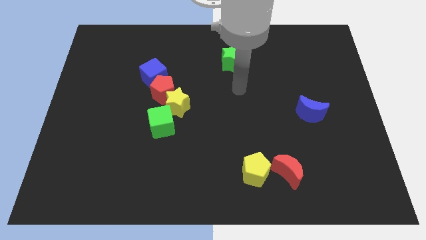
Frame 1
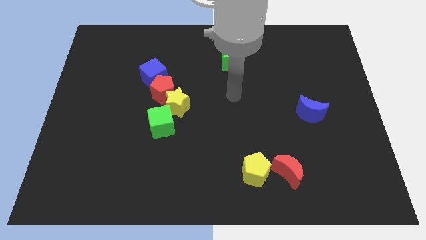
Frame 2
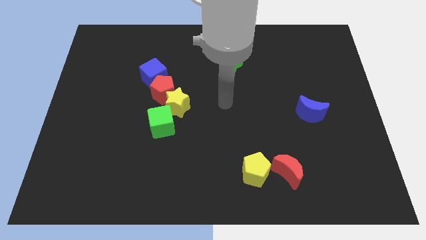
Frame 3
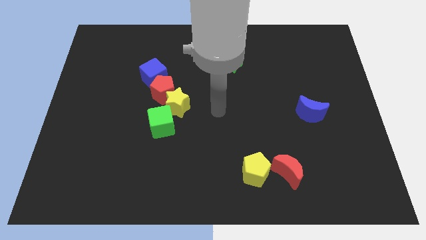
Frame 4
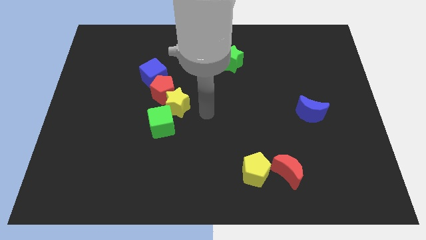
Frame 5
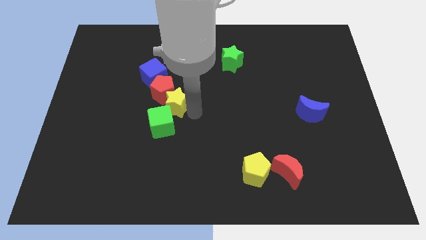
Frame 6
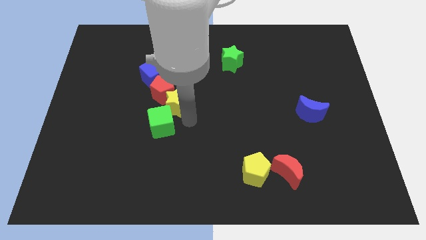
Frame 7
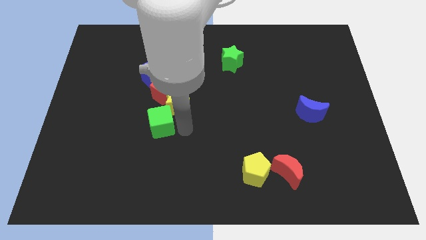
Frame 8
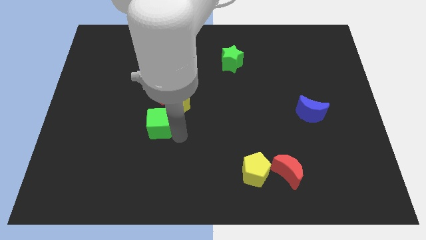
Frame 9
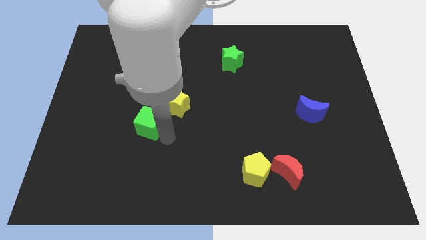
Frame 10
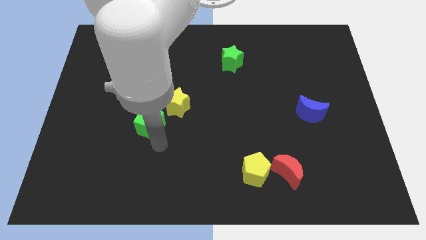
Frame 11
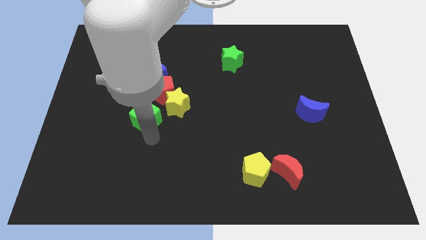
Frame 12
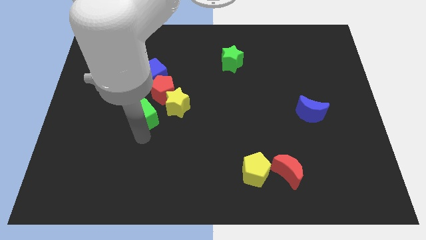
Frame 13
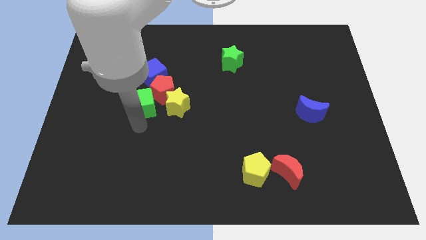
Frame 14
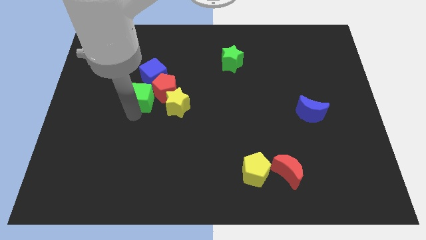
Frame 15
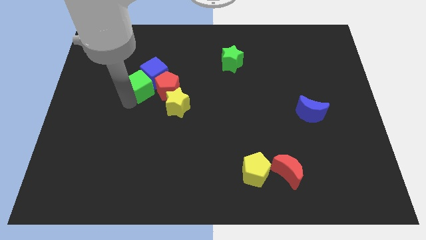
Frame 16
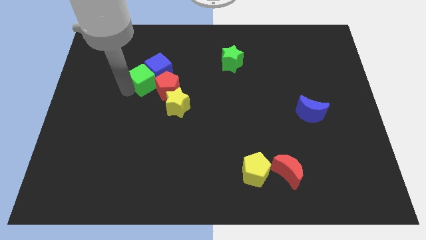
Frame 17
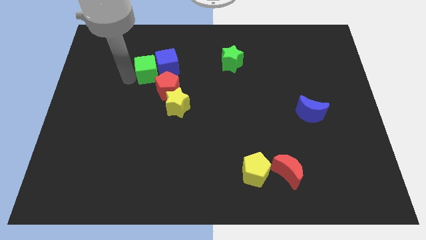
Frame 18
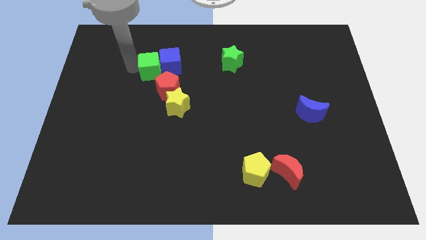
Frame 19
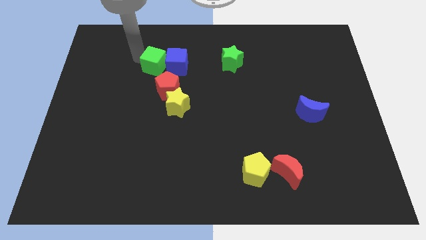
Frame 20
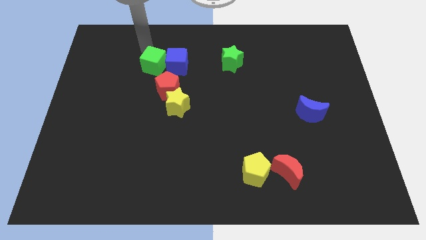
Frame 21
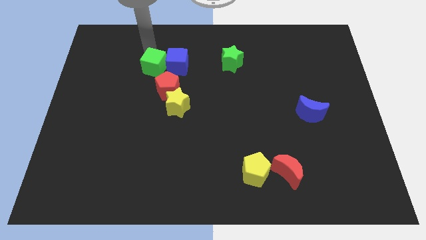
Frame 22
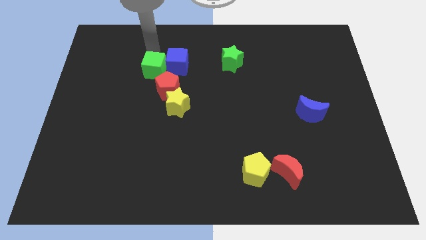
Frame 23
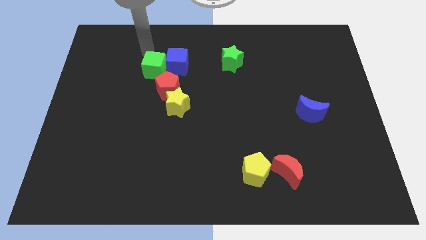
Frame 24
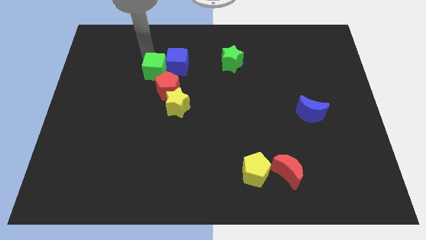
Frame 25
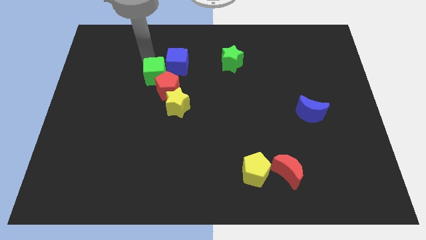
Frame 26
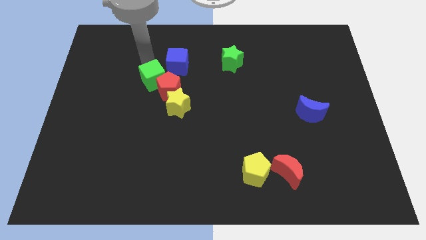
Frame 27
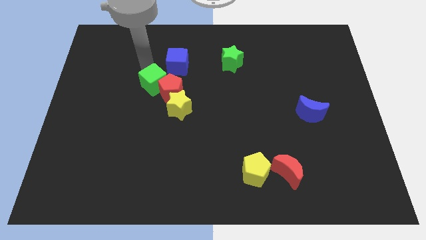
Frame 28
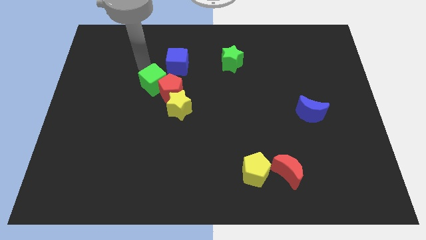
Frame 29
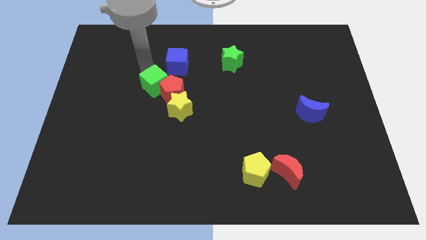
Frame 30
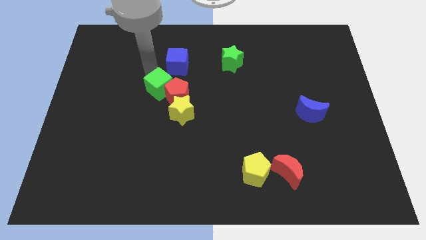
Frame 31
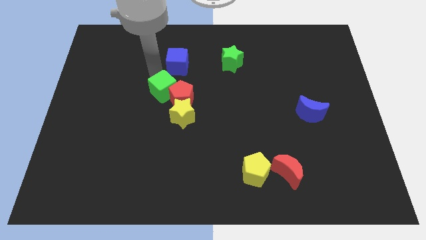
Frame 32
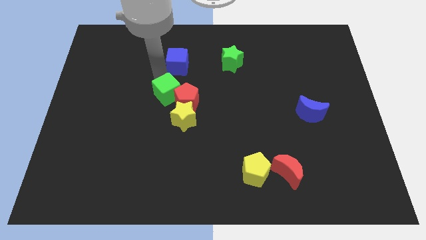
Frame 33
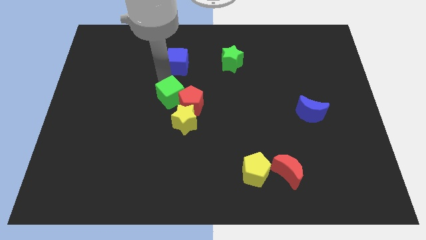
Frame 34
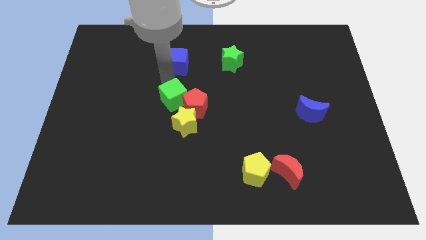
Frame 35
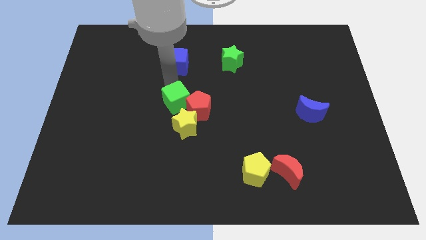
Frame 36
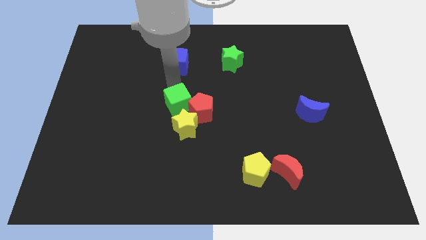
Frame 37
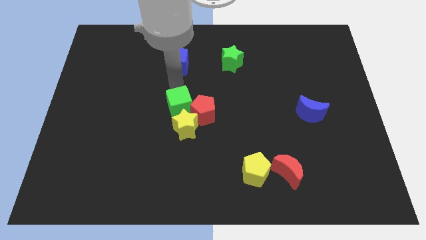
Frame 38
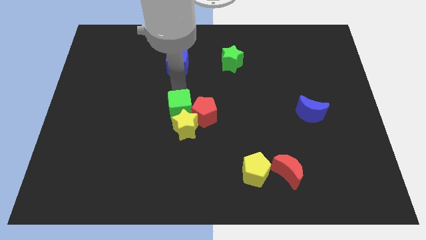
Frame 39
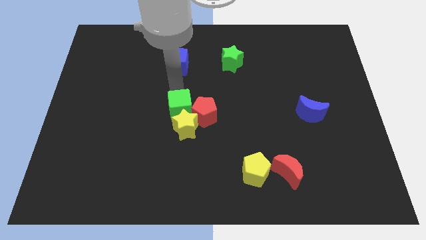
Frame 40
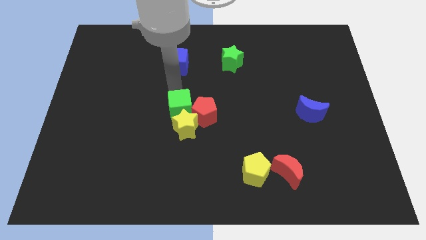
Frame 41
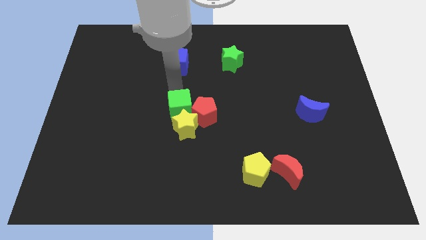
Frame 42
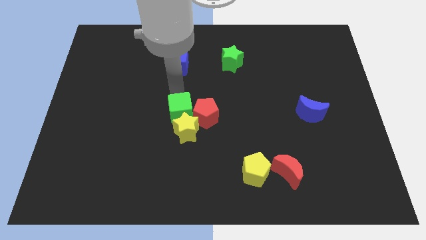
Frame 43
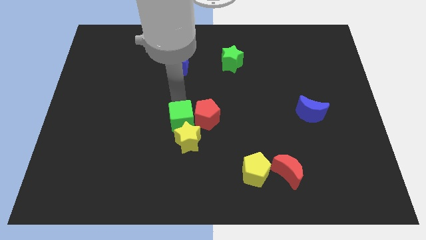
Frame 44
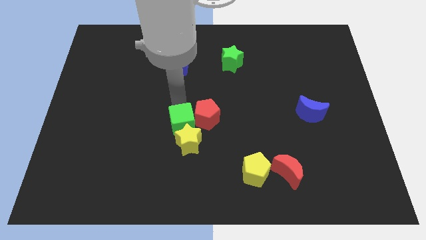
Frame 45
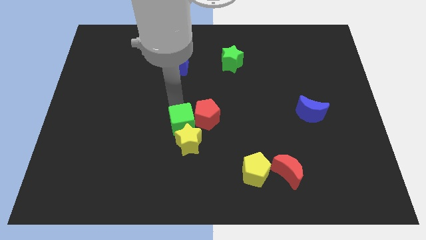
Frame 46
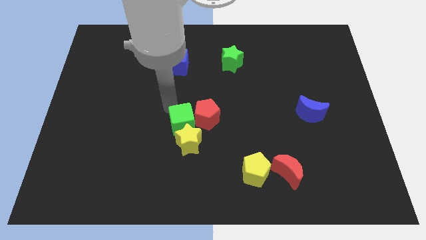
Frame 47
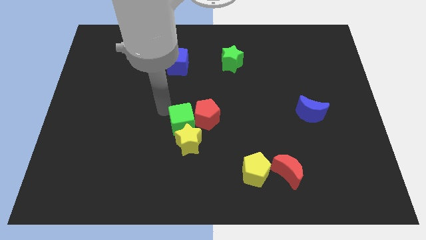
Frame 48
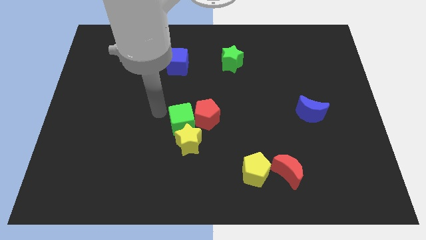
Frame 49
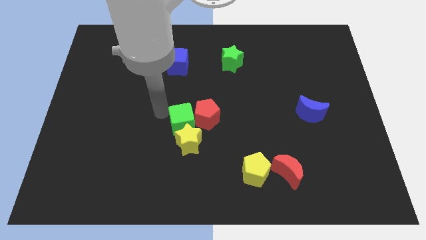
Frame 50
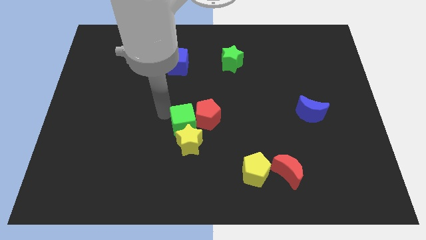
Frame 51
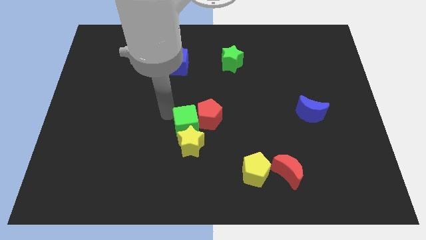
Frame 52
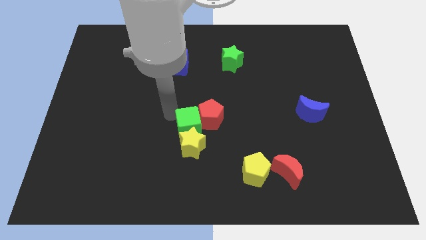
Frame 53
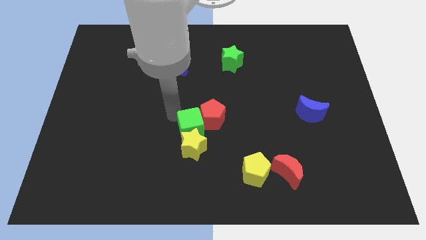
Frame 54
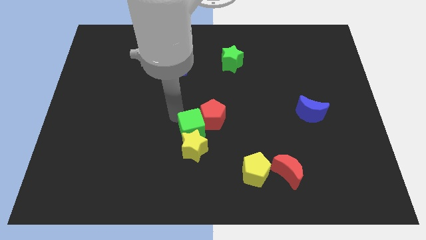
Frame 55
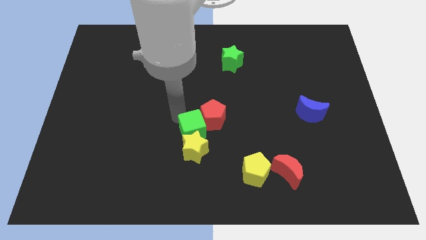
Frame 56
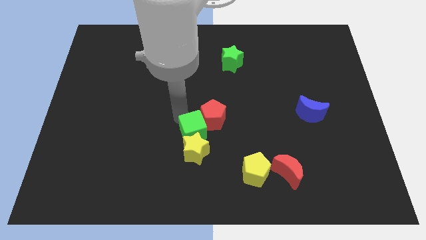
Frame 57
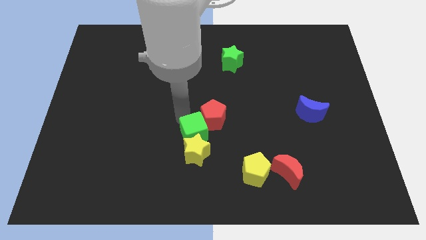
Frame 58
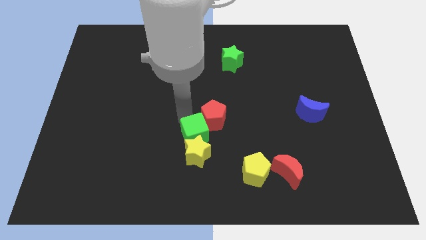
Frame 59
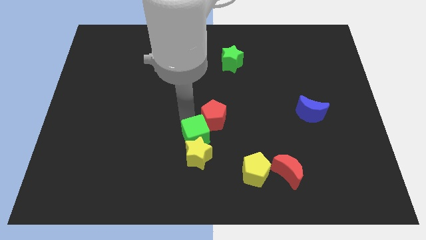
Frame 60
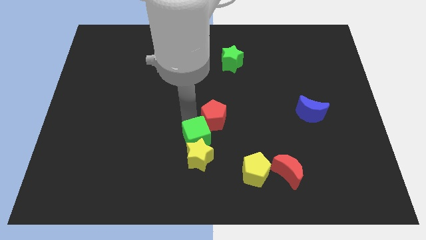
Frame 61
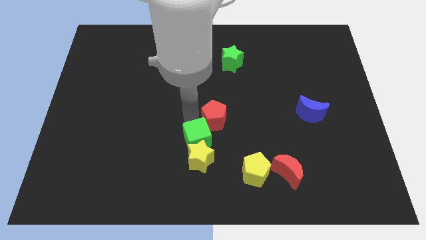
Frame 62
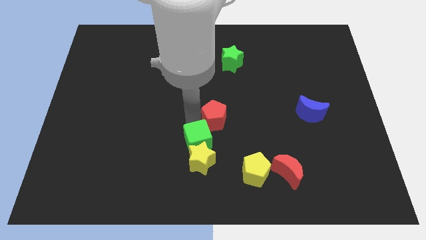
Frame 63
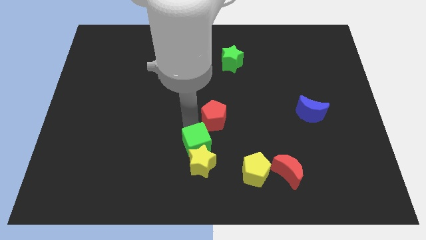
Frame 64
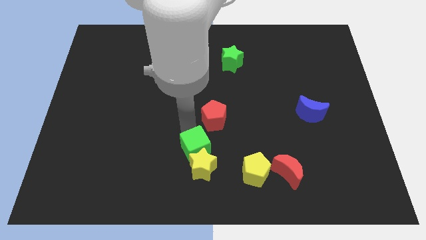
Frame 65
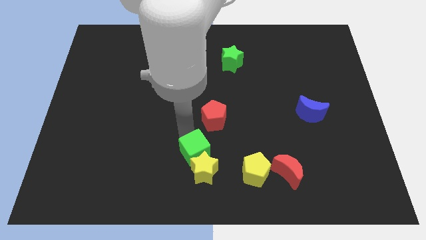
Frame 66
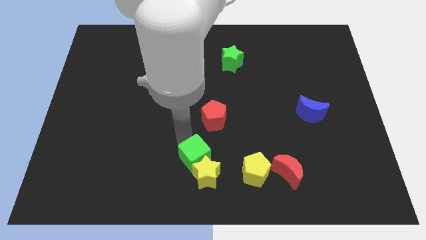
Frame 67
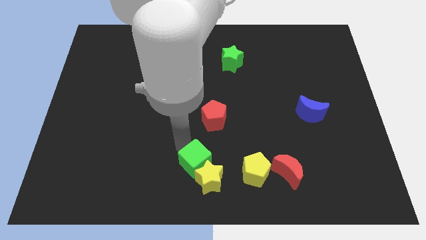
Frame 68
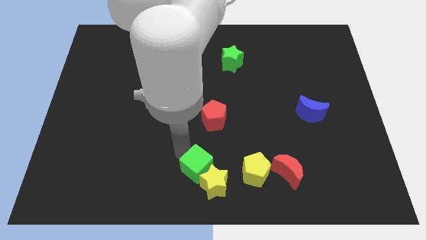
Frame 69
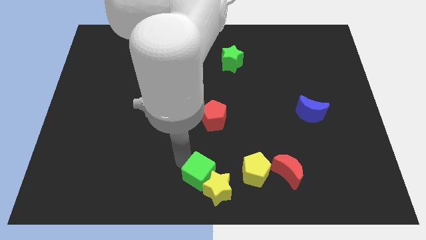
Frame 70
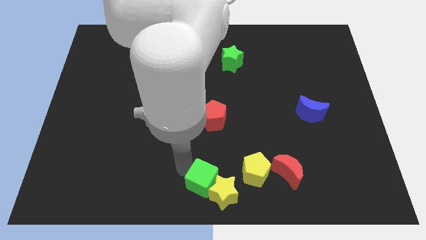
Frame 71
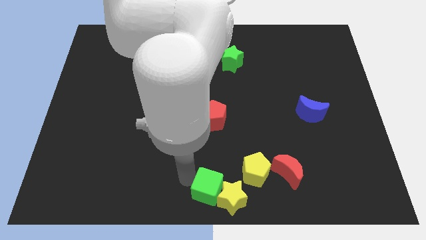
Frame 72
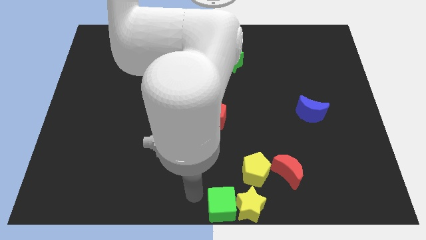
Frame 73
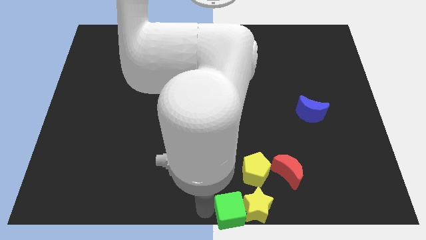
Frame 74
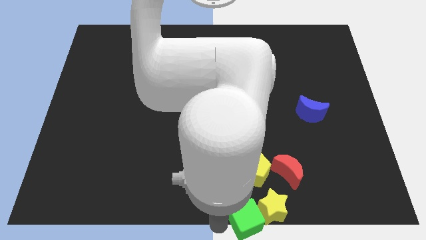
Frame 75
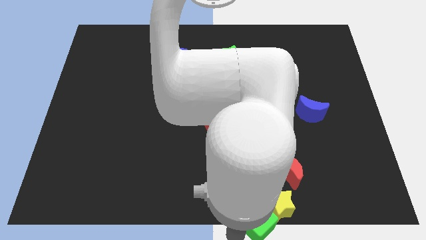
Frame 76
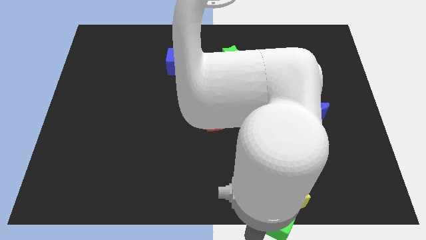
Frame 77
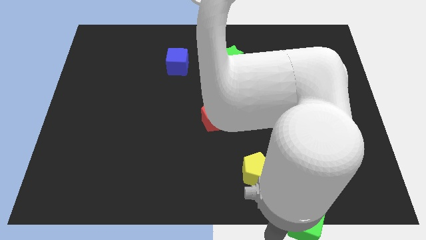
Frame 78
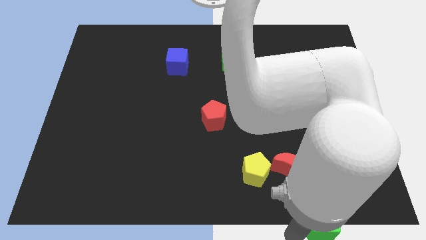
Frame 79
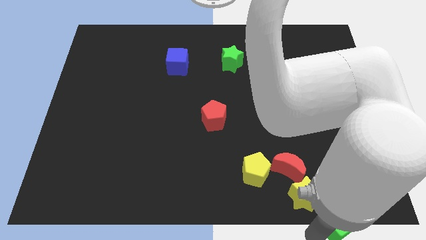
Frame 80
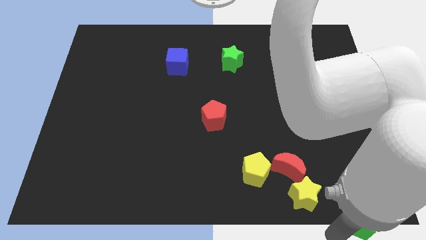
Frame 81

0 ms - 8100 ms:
put the green cube to the bottom right
